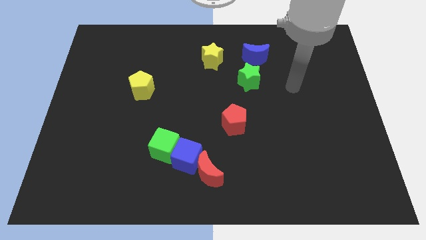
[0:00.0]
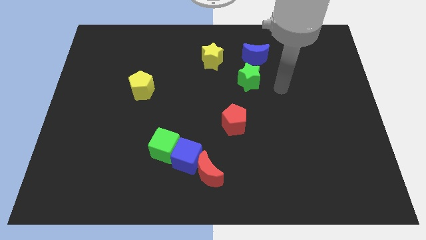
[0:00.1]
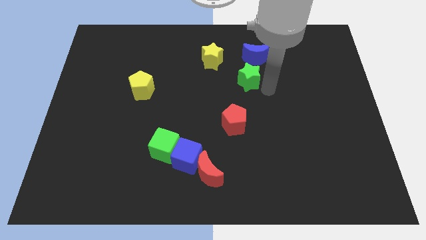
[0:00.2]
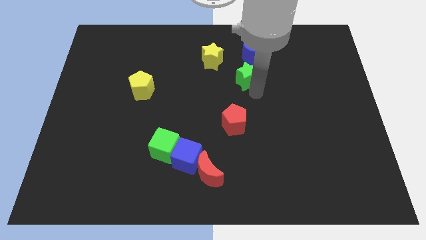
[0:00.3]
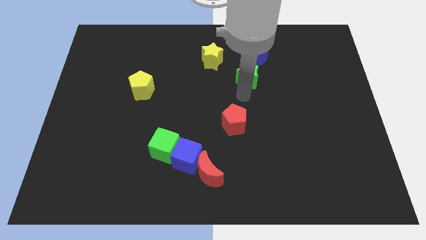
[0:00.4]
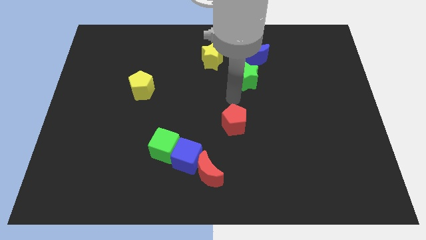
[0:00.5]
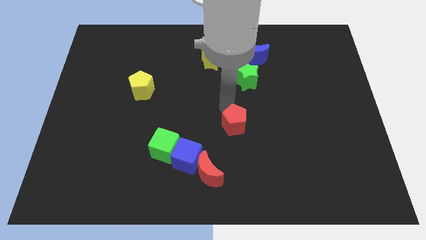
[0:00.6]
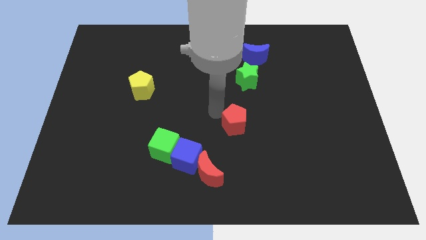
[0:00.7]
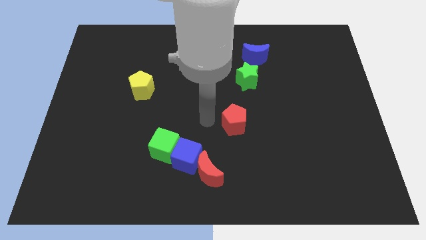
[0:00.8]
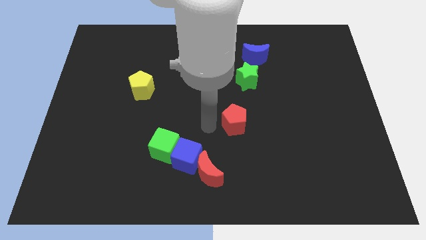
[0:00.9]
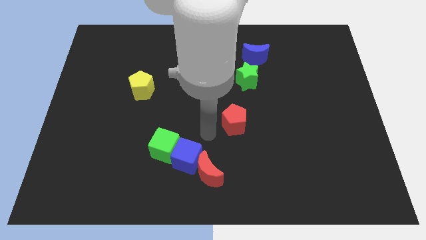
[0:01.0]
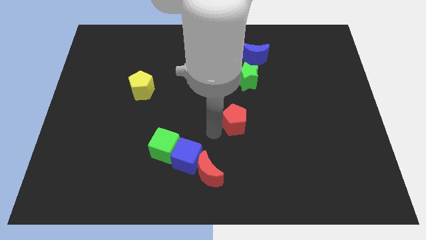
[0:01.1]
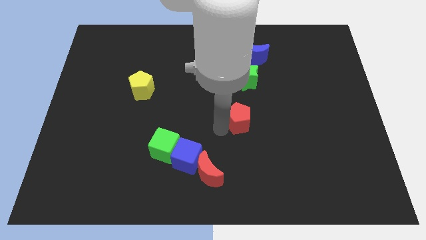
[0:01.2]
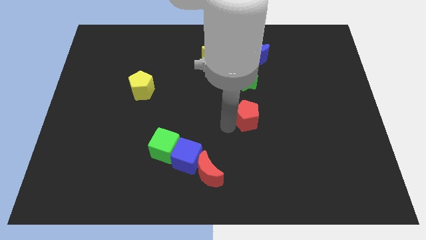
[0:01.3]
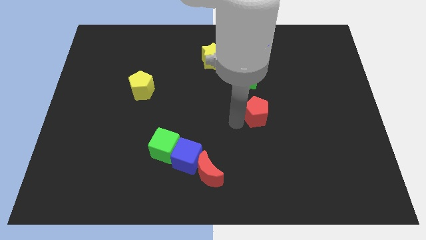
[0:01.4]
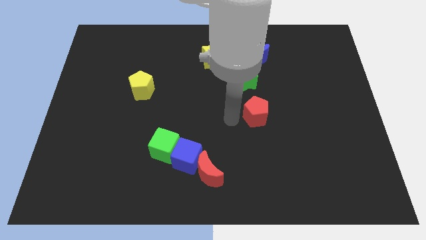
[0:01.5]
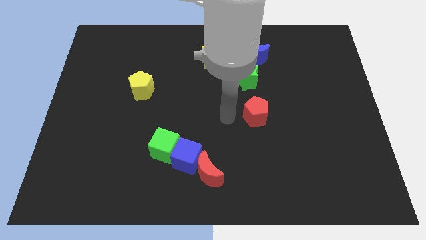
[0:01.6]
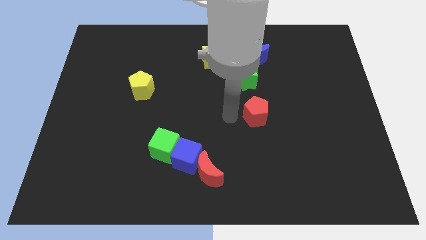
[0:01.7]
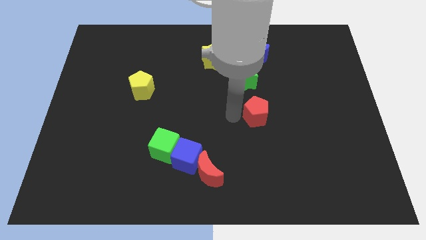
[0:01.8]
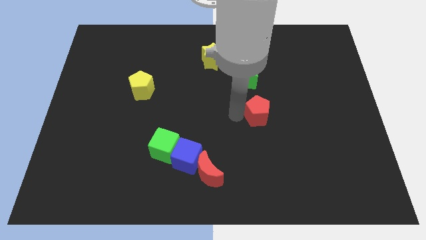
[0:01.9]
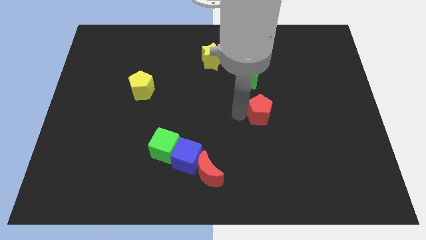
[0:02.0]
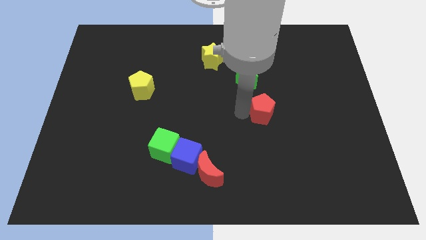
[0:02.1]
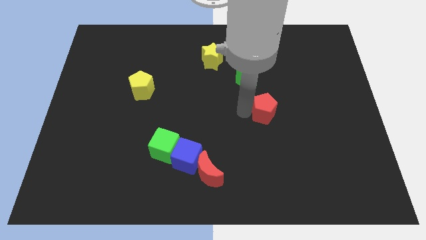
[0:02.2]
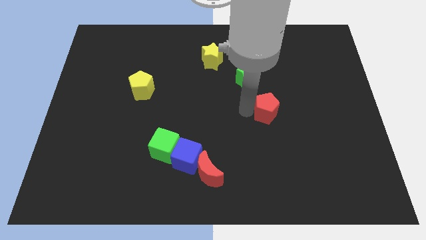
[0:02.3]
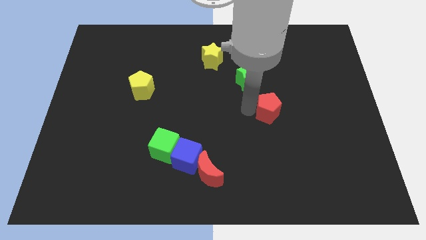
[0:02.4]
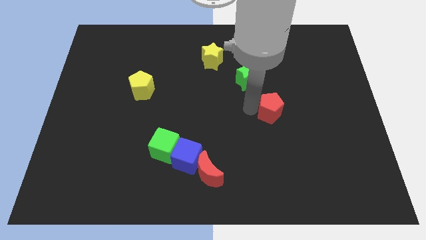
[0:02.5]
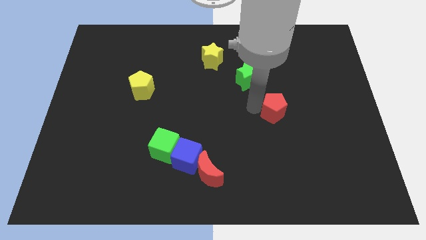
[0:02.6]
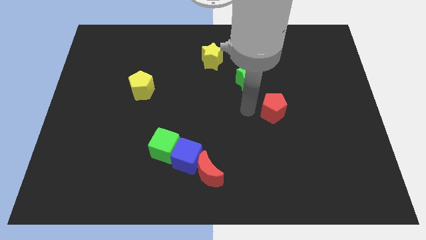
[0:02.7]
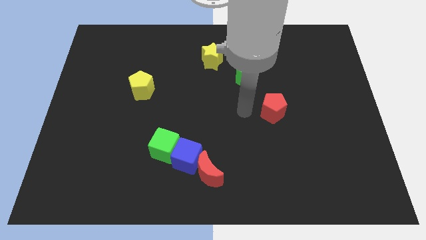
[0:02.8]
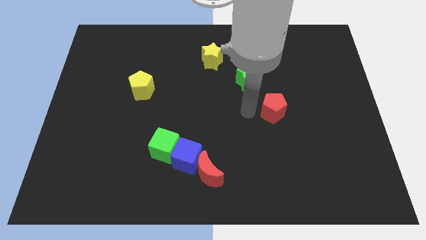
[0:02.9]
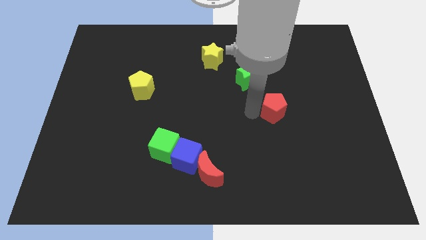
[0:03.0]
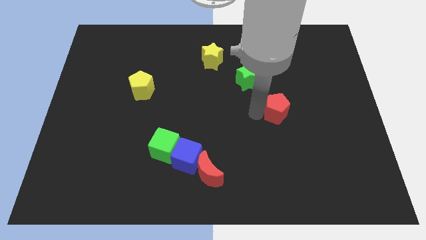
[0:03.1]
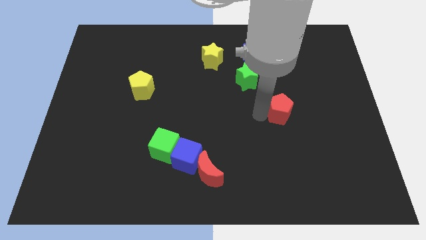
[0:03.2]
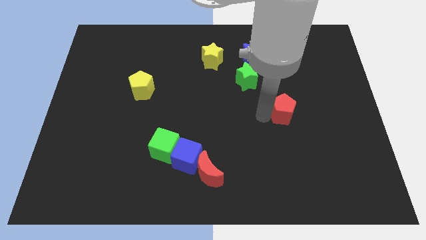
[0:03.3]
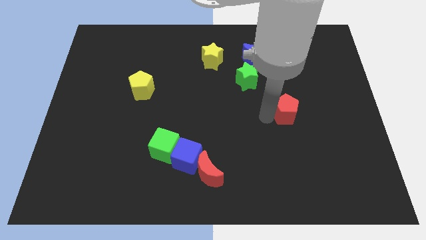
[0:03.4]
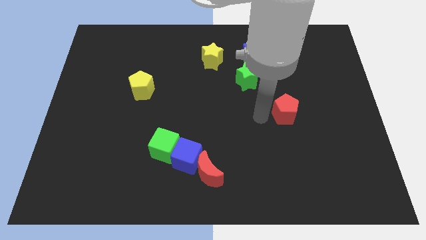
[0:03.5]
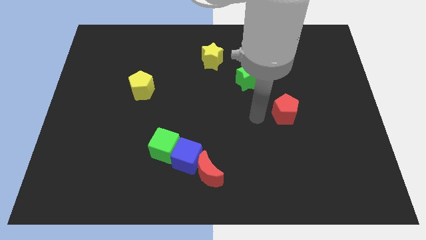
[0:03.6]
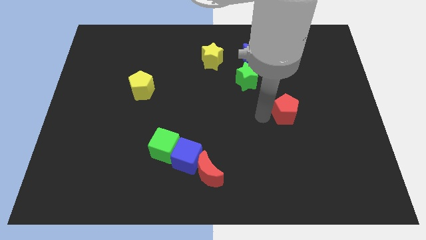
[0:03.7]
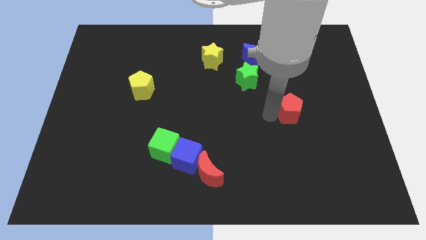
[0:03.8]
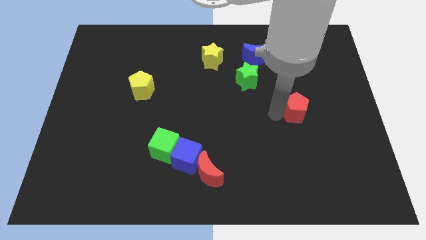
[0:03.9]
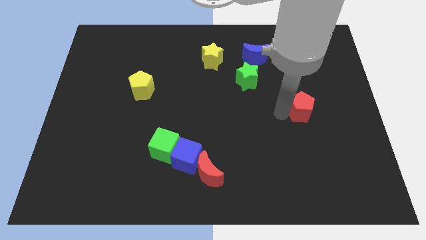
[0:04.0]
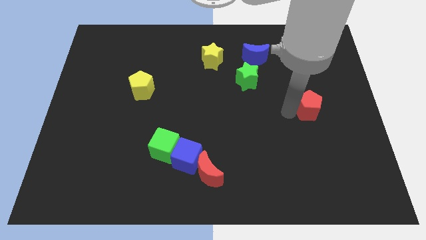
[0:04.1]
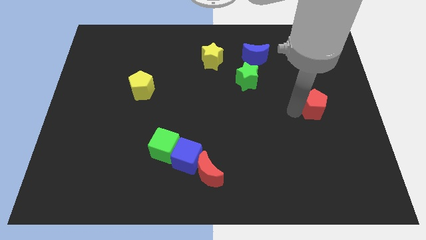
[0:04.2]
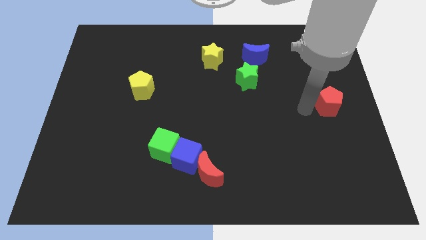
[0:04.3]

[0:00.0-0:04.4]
slide the red pentagon to the right side

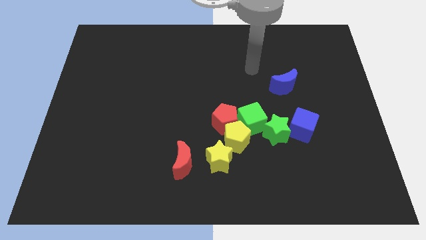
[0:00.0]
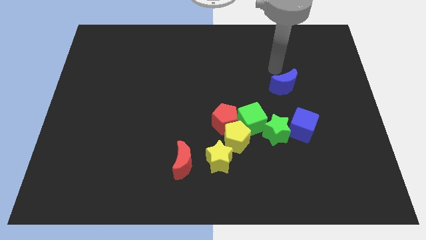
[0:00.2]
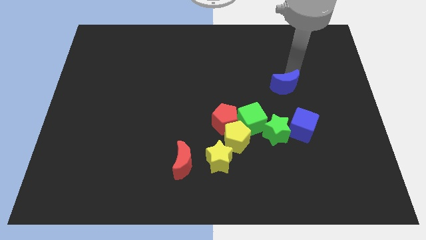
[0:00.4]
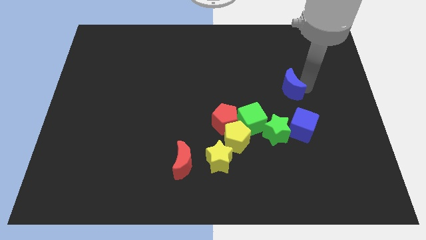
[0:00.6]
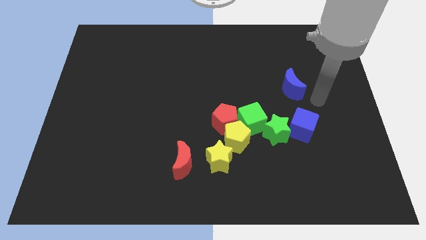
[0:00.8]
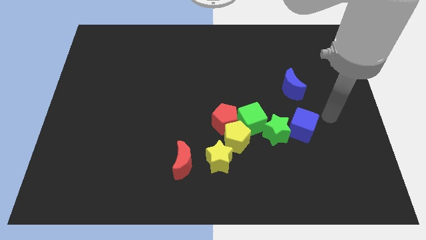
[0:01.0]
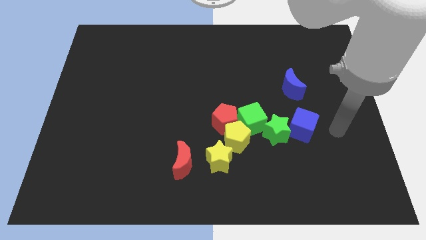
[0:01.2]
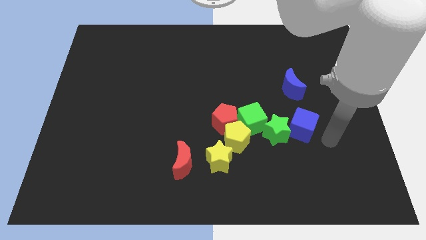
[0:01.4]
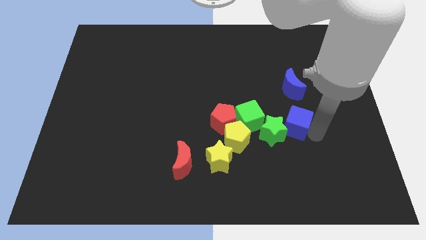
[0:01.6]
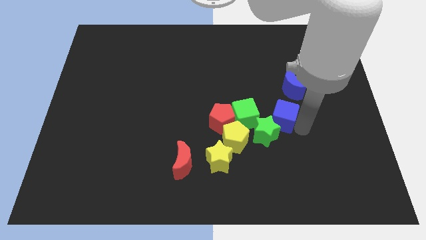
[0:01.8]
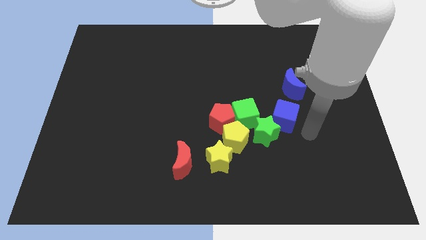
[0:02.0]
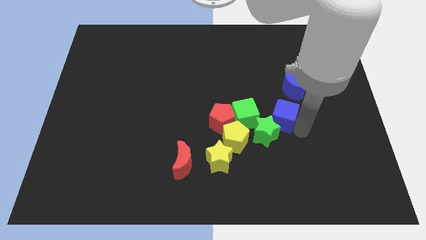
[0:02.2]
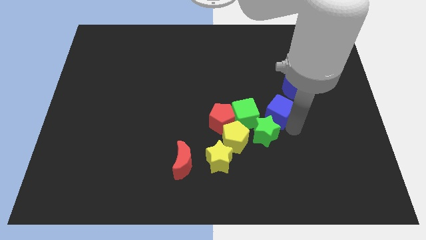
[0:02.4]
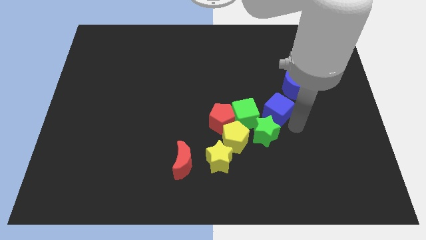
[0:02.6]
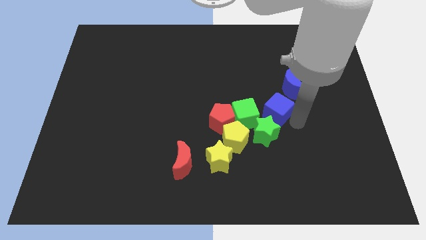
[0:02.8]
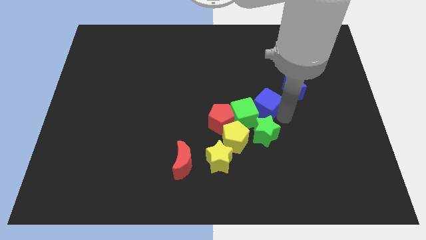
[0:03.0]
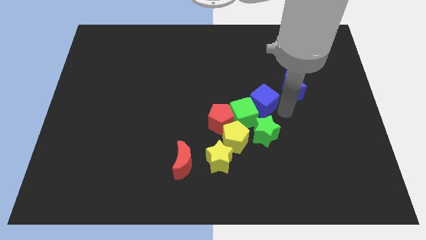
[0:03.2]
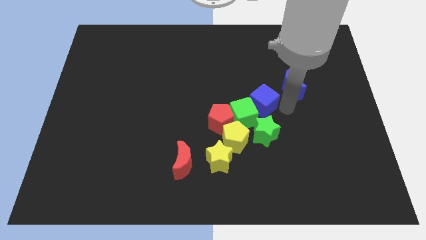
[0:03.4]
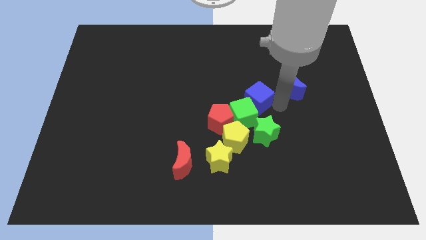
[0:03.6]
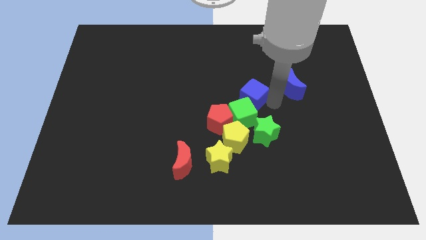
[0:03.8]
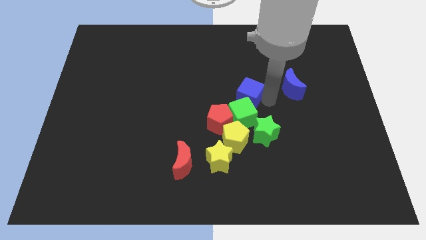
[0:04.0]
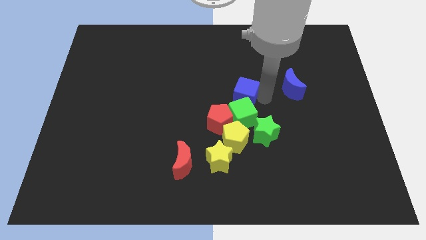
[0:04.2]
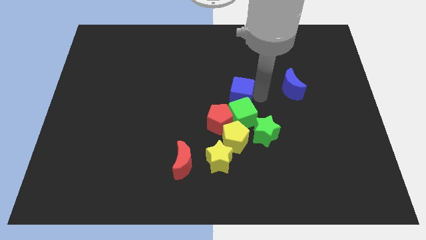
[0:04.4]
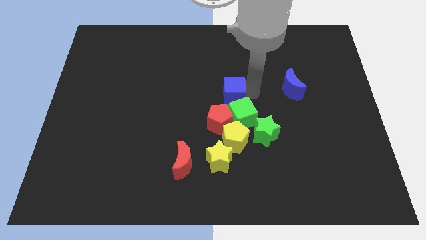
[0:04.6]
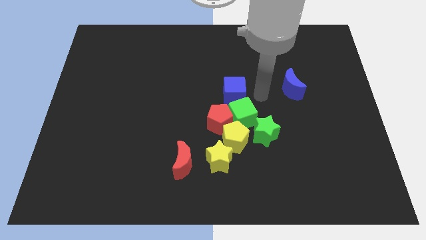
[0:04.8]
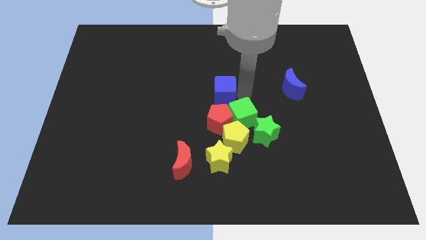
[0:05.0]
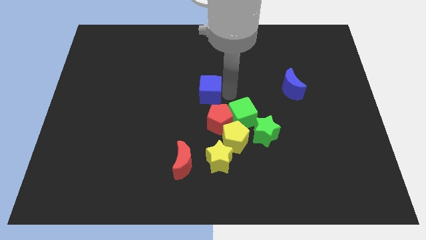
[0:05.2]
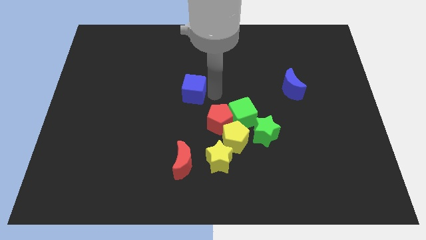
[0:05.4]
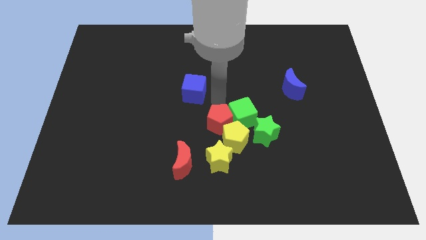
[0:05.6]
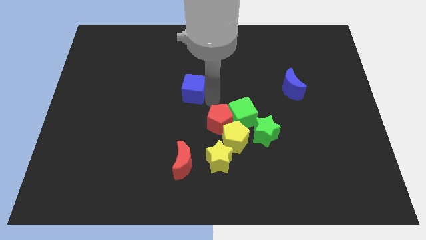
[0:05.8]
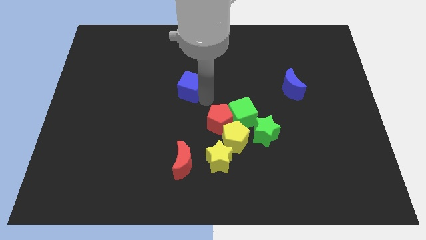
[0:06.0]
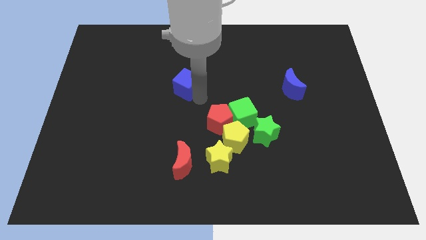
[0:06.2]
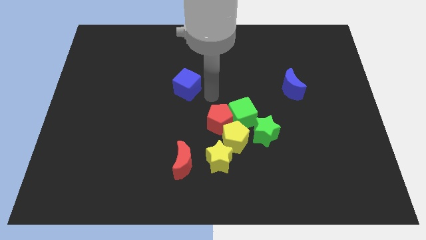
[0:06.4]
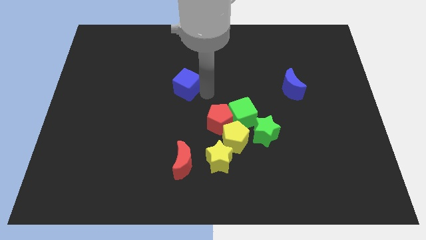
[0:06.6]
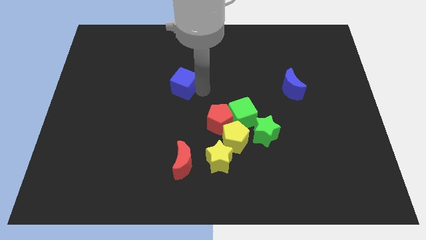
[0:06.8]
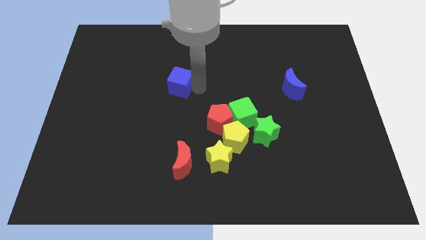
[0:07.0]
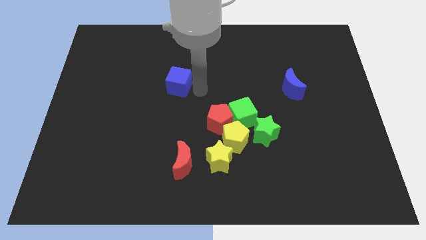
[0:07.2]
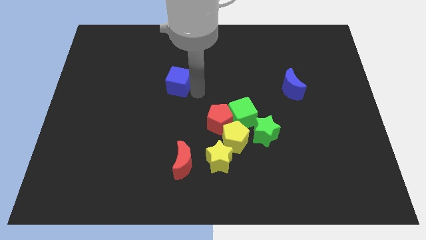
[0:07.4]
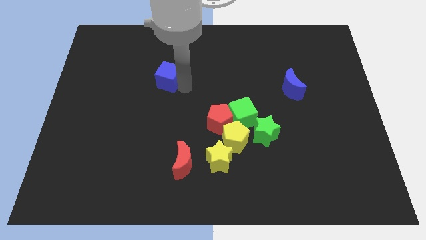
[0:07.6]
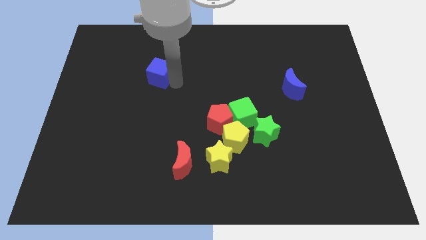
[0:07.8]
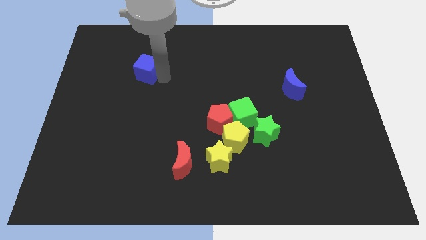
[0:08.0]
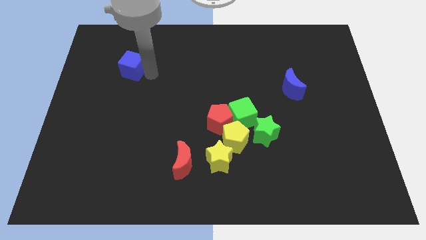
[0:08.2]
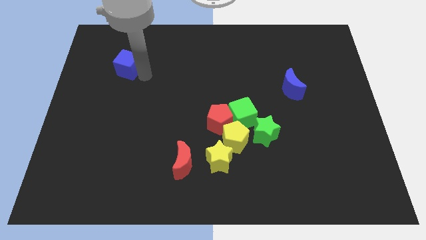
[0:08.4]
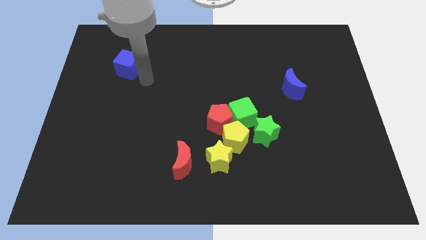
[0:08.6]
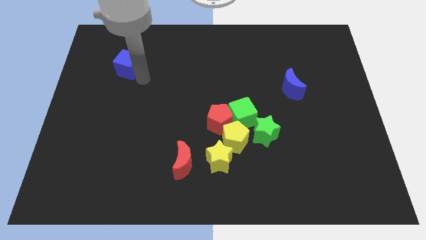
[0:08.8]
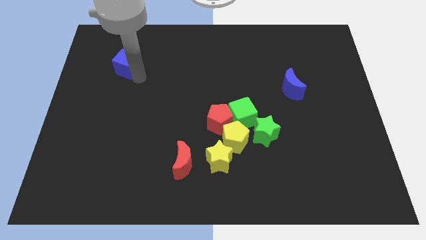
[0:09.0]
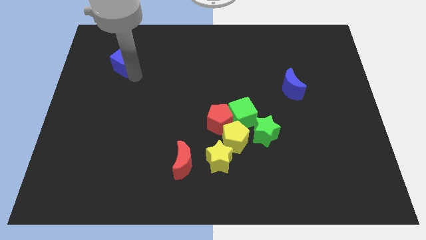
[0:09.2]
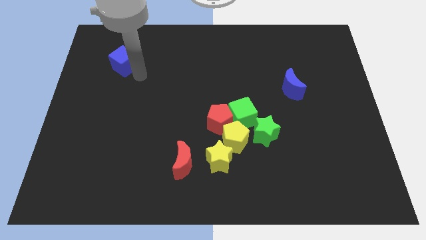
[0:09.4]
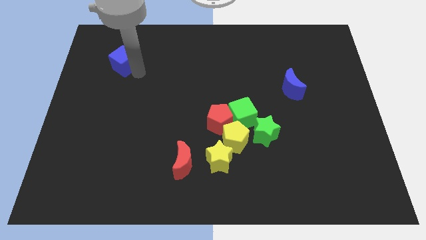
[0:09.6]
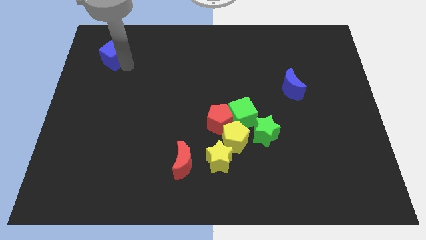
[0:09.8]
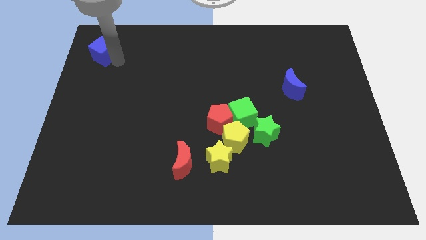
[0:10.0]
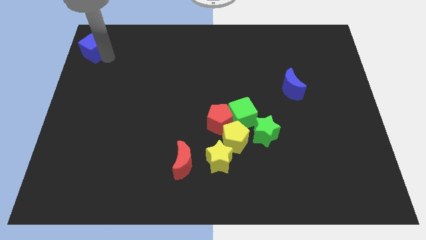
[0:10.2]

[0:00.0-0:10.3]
slide the blue cube to the top left
